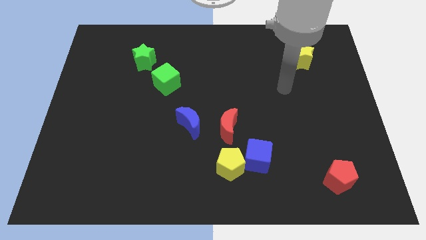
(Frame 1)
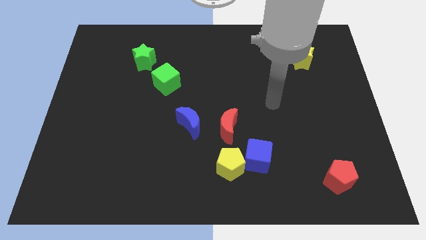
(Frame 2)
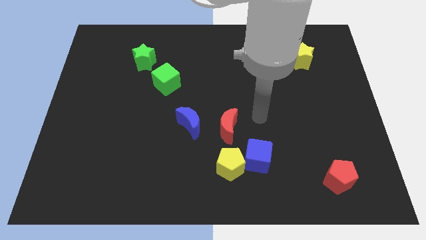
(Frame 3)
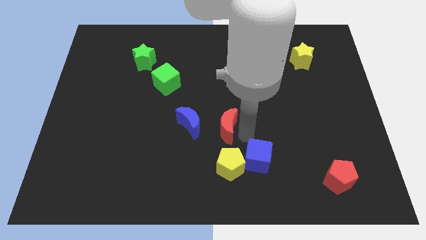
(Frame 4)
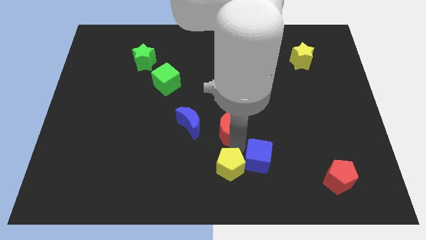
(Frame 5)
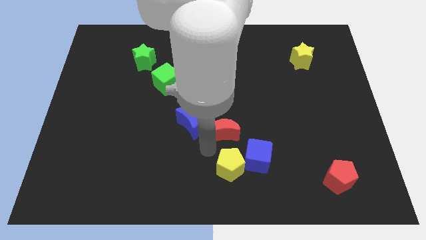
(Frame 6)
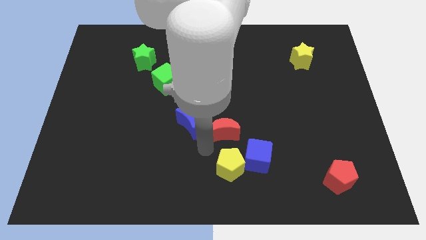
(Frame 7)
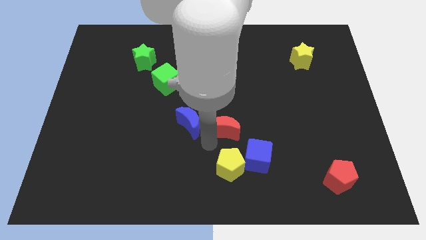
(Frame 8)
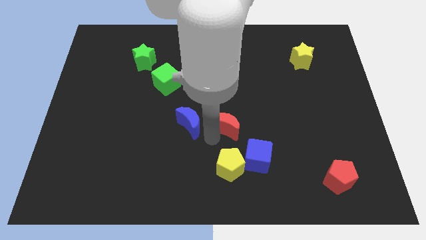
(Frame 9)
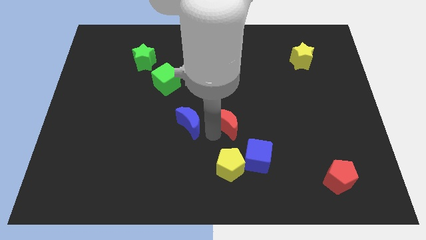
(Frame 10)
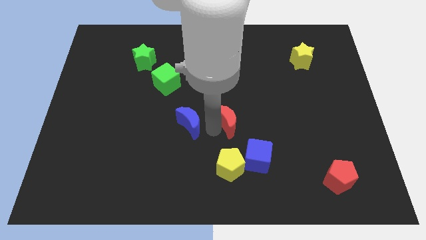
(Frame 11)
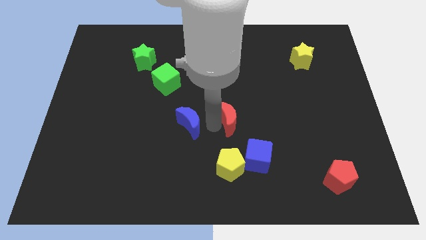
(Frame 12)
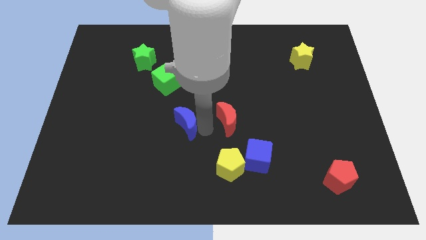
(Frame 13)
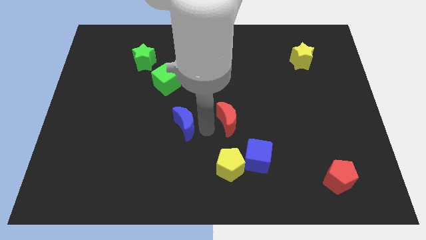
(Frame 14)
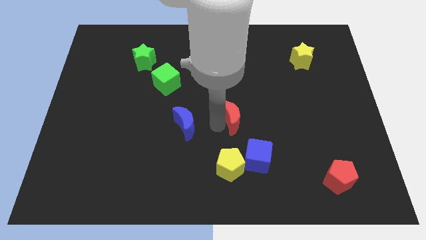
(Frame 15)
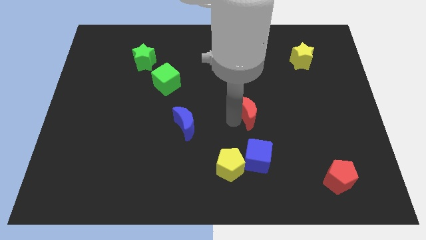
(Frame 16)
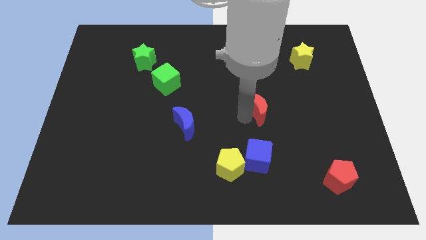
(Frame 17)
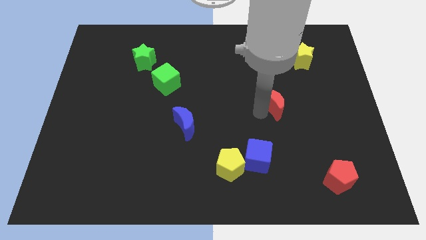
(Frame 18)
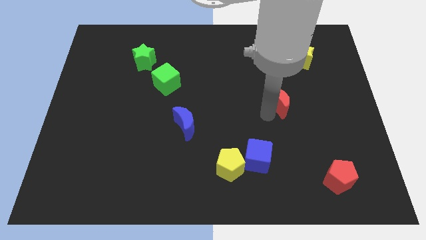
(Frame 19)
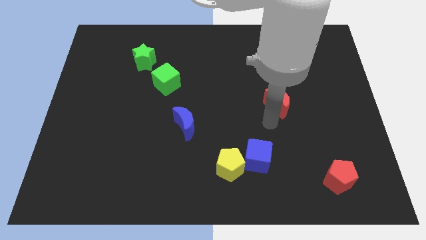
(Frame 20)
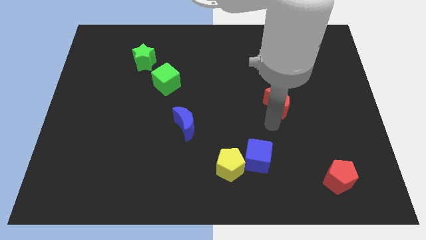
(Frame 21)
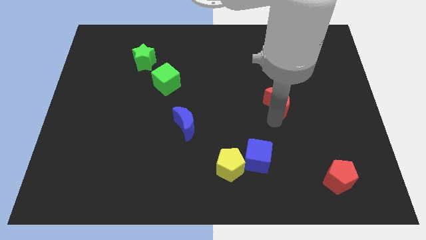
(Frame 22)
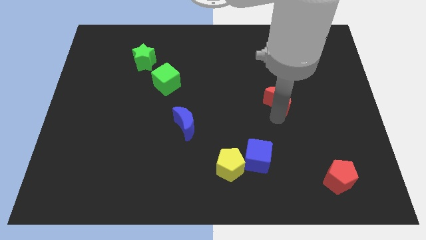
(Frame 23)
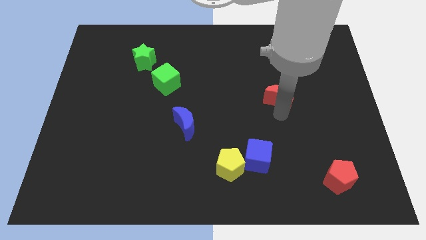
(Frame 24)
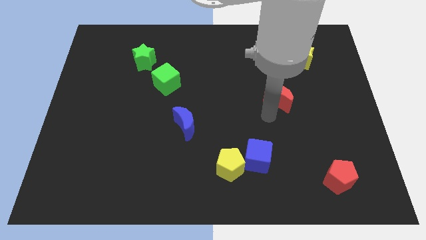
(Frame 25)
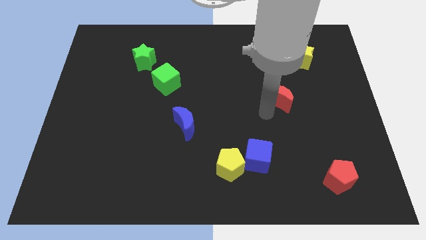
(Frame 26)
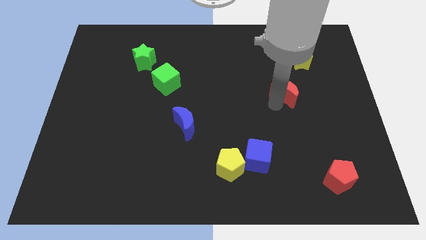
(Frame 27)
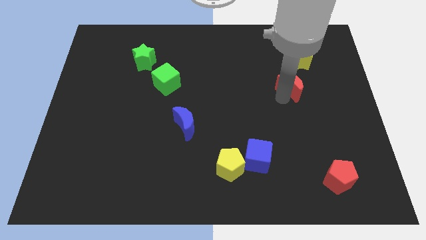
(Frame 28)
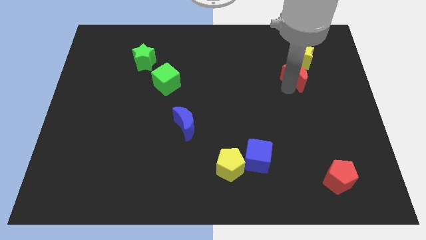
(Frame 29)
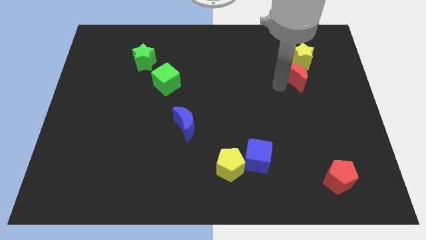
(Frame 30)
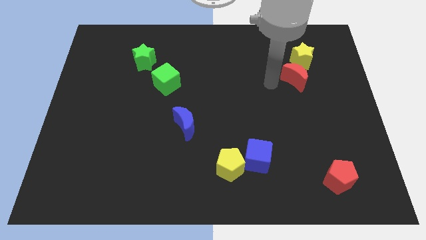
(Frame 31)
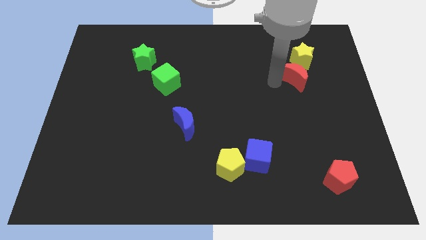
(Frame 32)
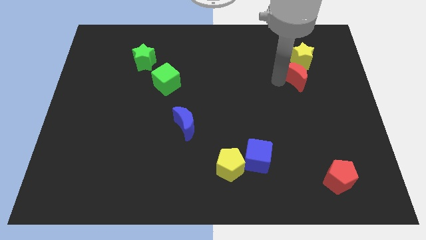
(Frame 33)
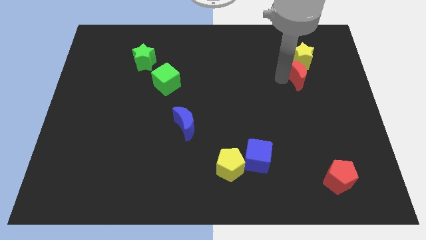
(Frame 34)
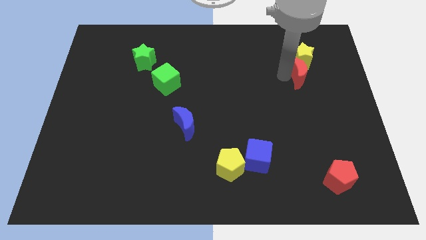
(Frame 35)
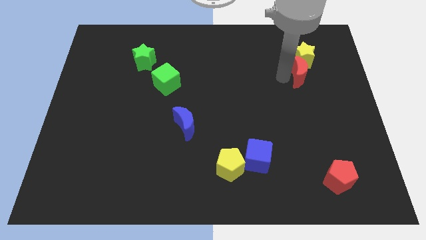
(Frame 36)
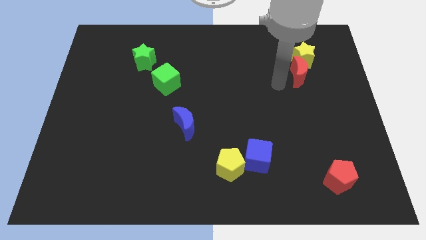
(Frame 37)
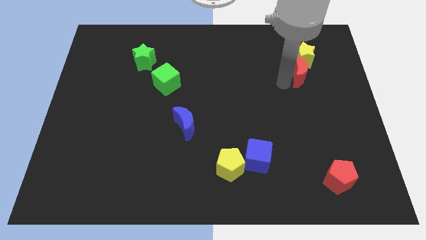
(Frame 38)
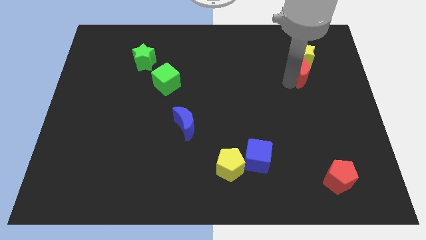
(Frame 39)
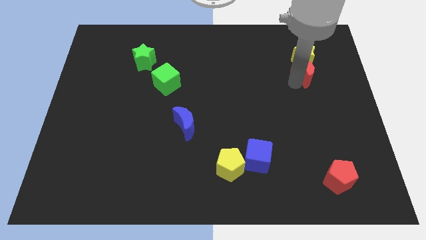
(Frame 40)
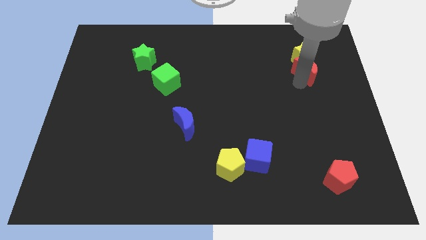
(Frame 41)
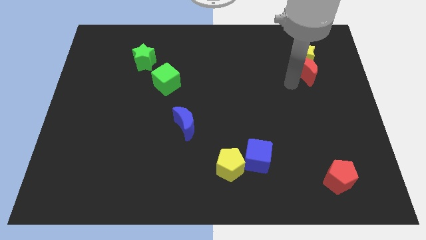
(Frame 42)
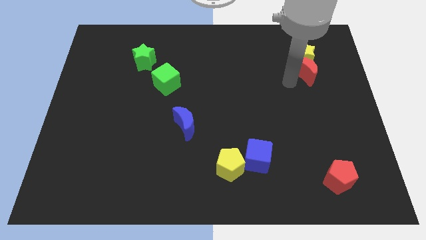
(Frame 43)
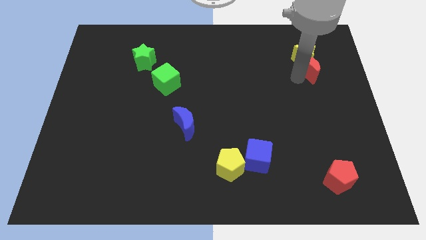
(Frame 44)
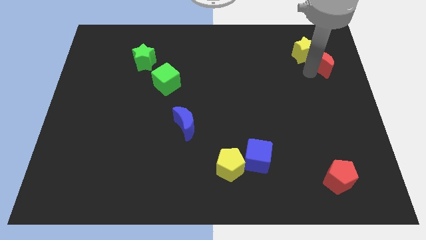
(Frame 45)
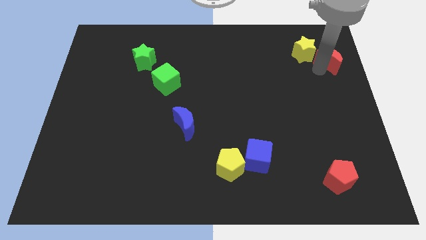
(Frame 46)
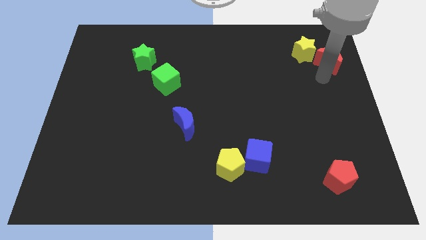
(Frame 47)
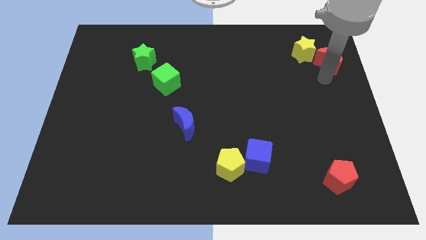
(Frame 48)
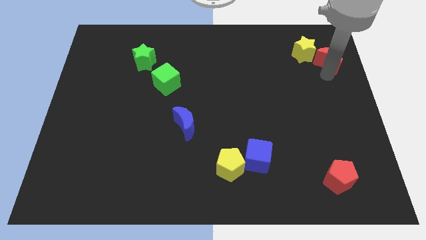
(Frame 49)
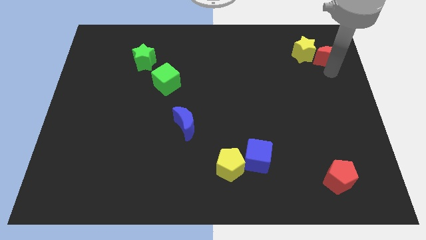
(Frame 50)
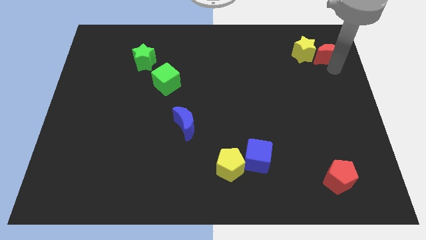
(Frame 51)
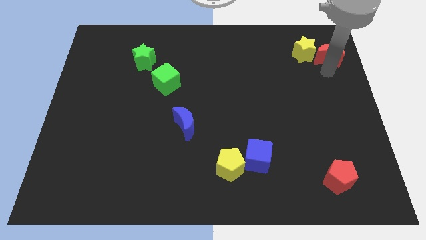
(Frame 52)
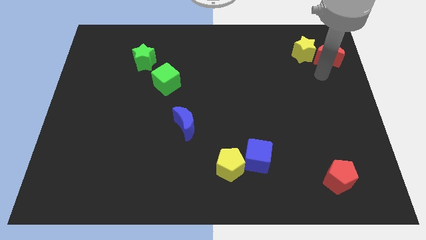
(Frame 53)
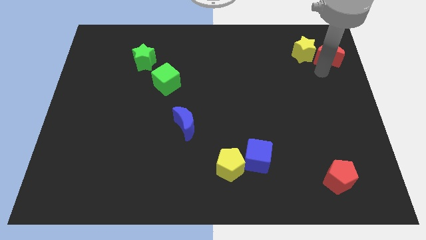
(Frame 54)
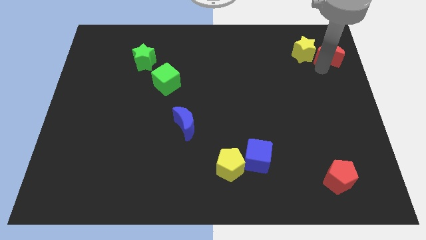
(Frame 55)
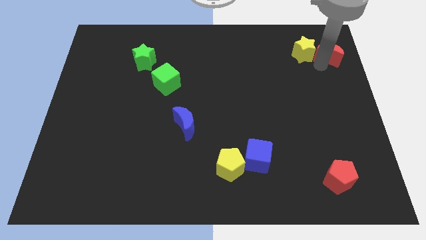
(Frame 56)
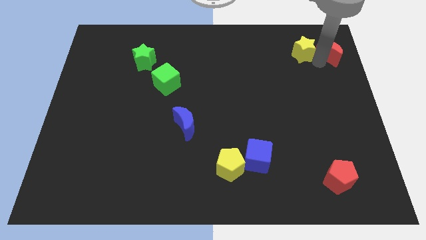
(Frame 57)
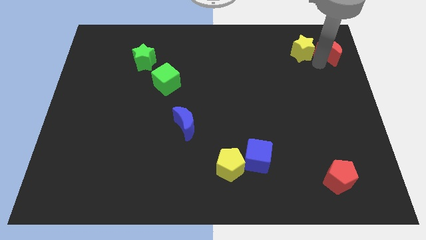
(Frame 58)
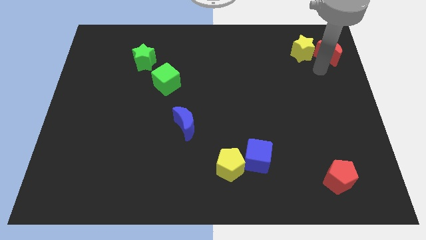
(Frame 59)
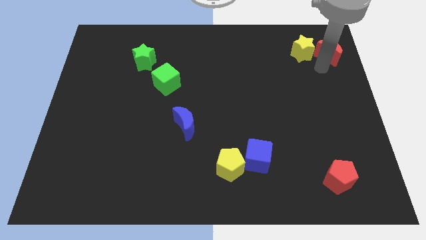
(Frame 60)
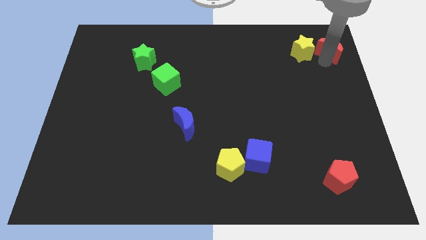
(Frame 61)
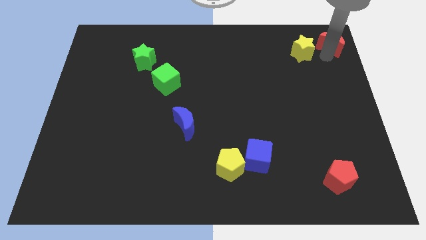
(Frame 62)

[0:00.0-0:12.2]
move the red moon to the top right corner

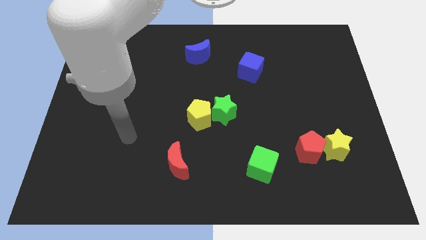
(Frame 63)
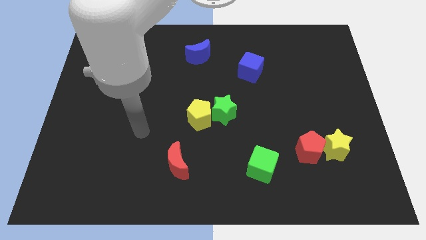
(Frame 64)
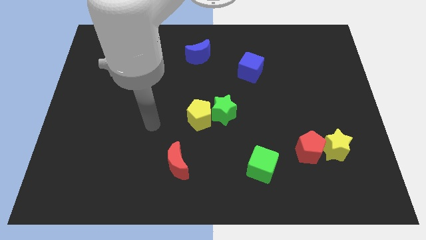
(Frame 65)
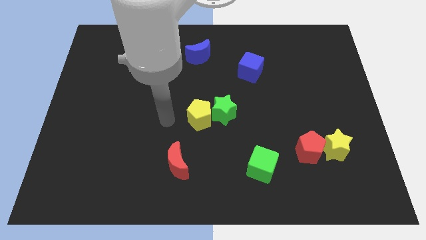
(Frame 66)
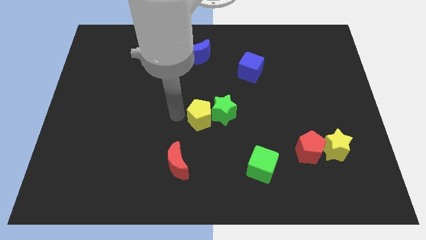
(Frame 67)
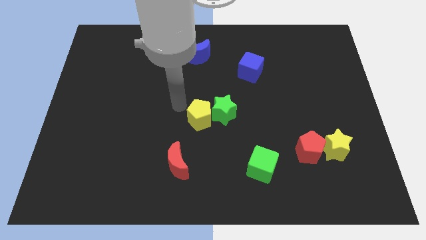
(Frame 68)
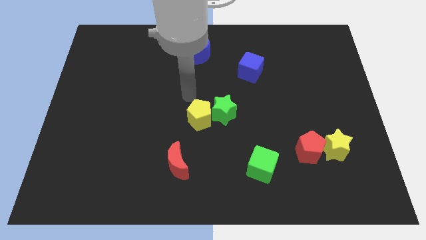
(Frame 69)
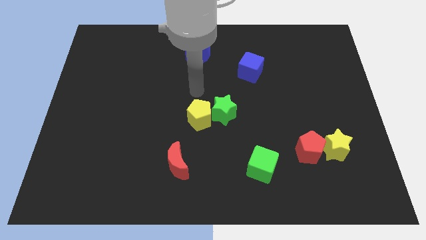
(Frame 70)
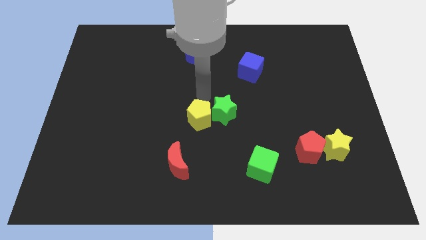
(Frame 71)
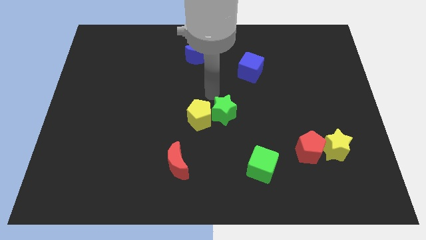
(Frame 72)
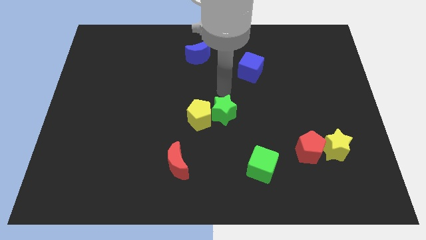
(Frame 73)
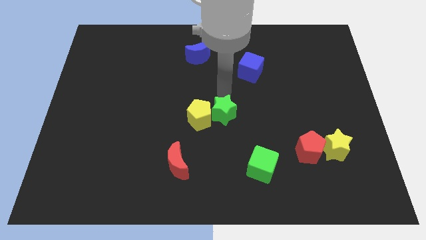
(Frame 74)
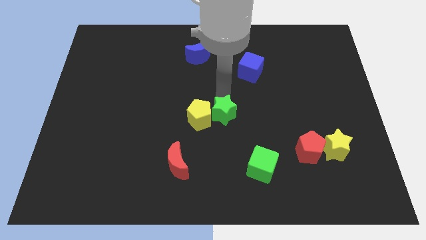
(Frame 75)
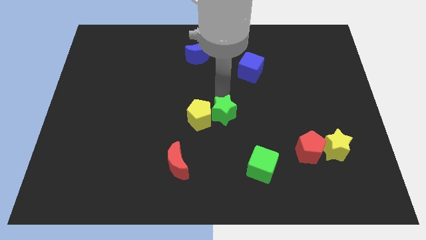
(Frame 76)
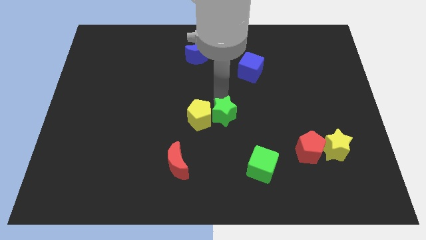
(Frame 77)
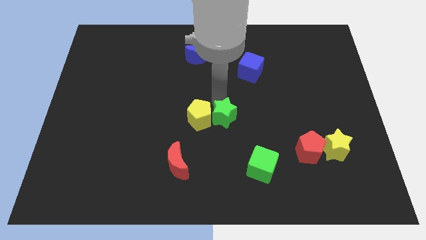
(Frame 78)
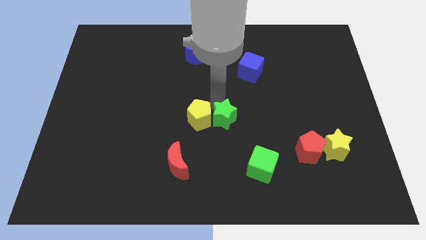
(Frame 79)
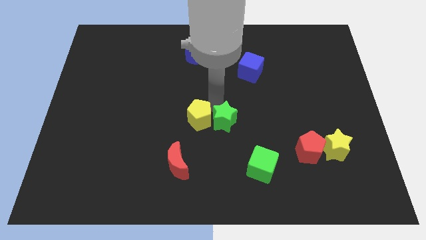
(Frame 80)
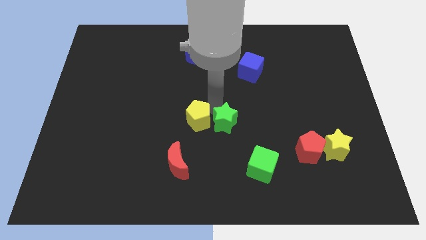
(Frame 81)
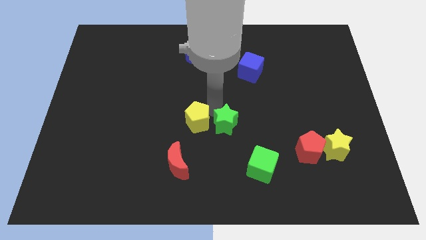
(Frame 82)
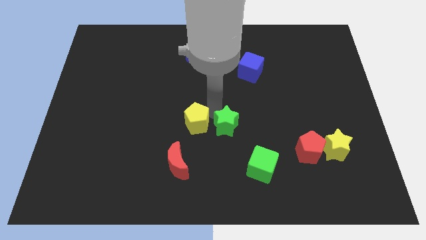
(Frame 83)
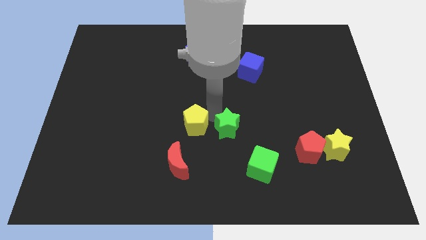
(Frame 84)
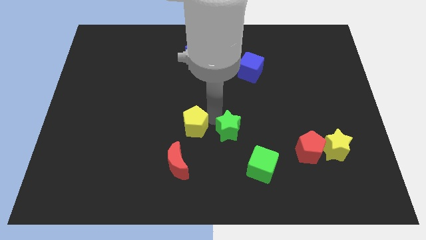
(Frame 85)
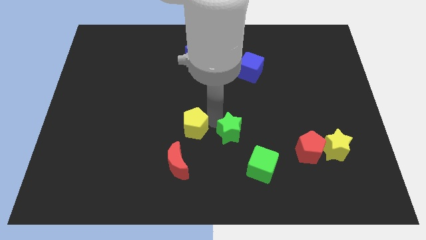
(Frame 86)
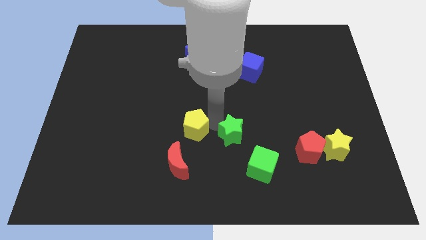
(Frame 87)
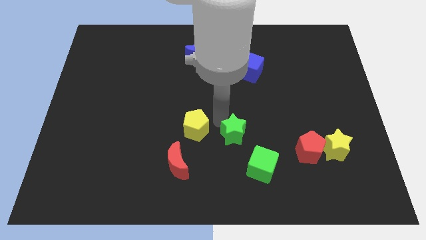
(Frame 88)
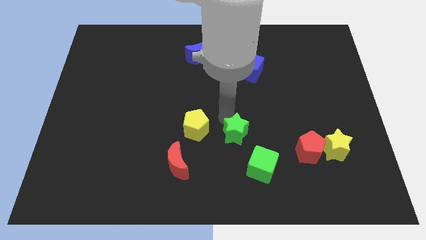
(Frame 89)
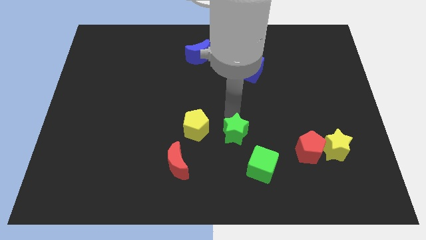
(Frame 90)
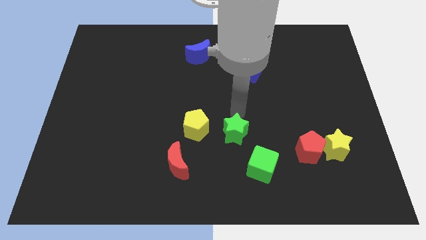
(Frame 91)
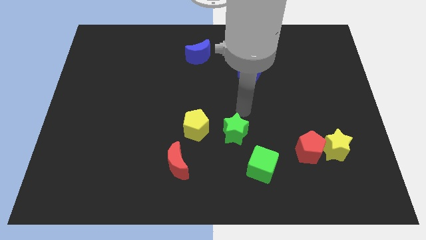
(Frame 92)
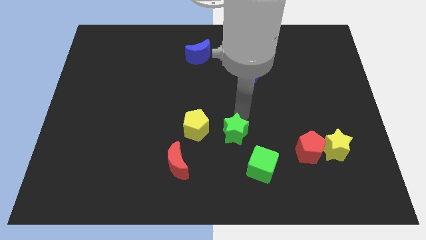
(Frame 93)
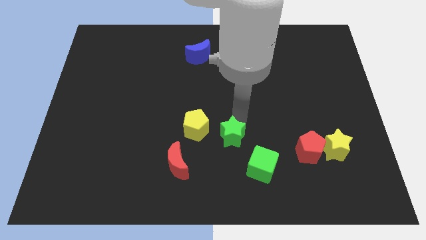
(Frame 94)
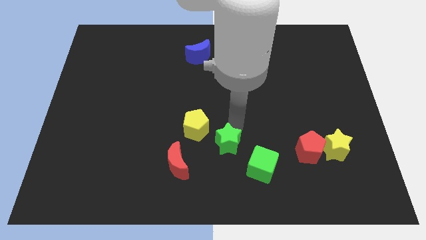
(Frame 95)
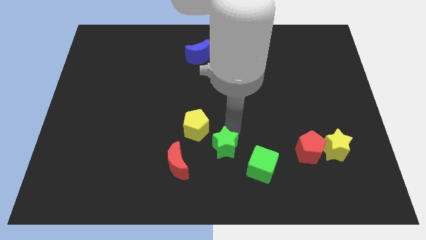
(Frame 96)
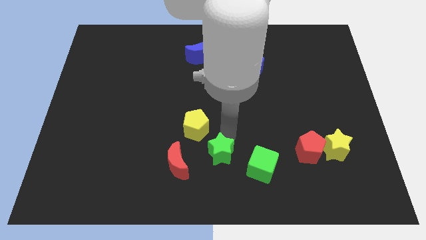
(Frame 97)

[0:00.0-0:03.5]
move the green star to the bottom
